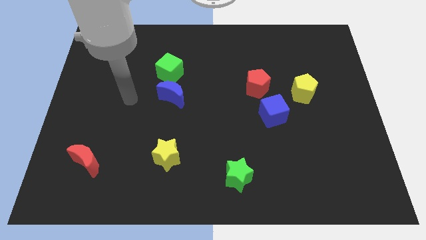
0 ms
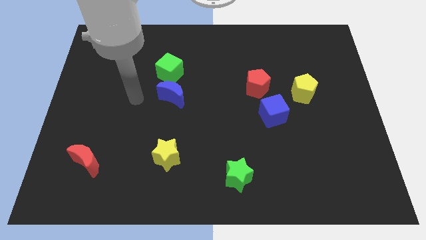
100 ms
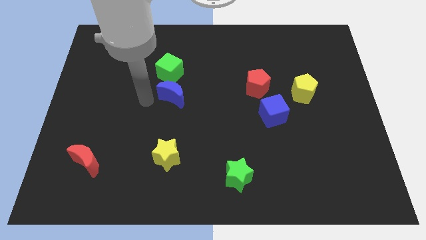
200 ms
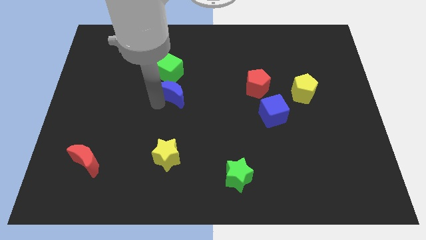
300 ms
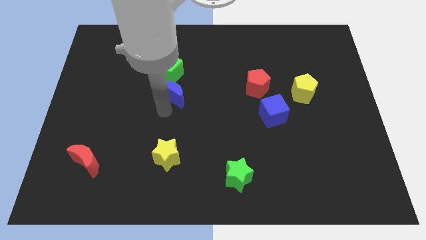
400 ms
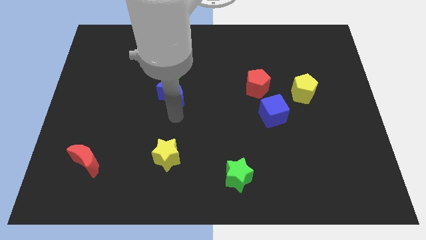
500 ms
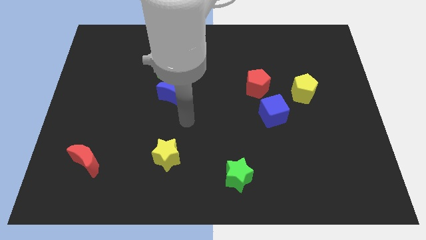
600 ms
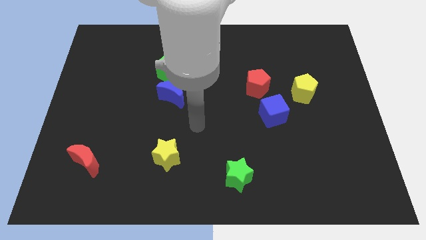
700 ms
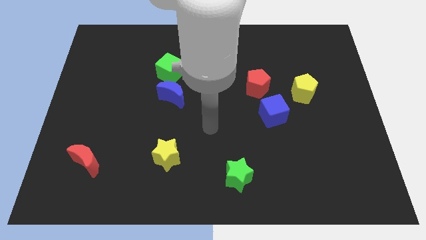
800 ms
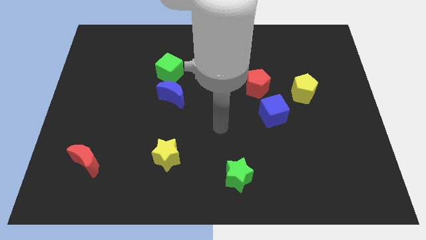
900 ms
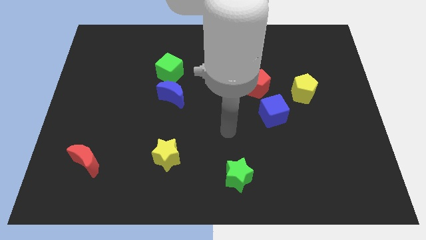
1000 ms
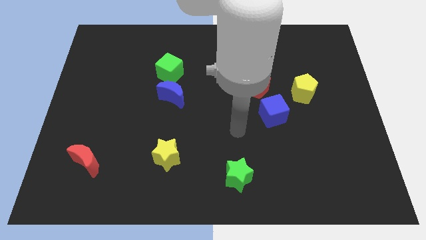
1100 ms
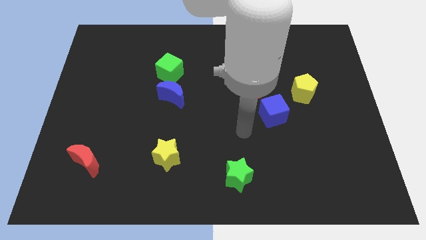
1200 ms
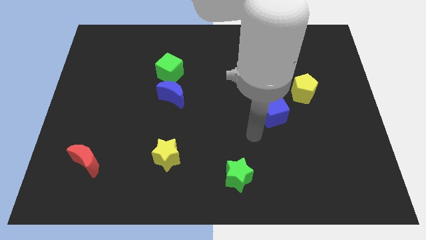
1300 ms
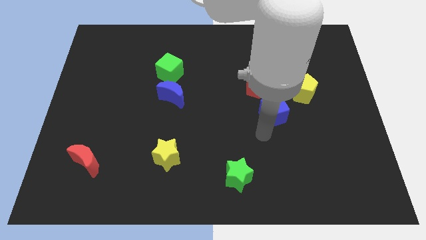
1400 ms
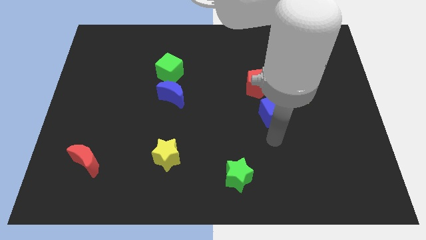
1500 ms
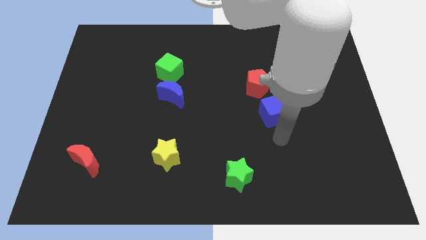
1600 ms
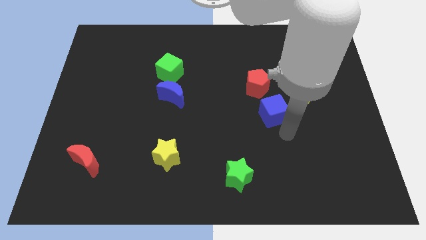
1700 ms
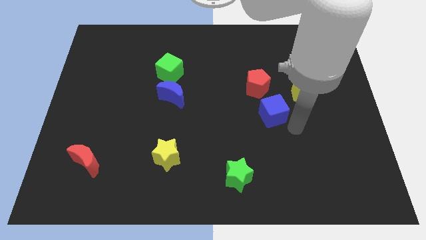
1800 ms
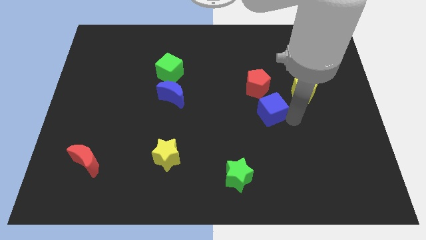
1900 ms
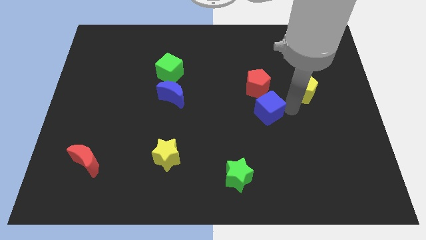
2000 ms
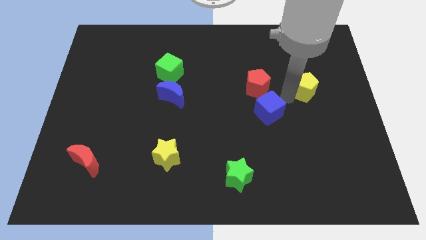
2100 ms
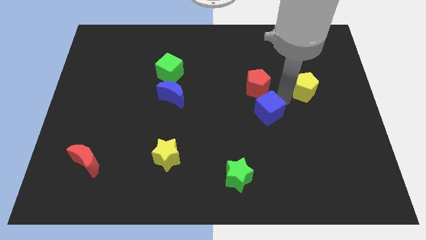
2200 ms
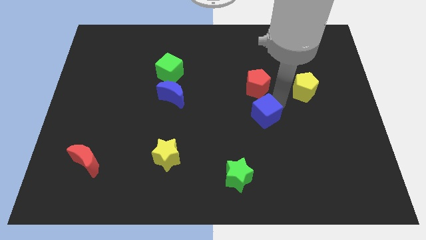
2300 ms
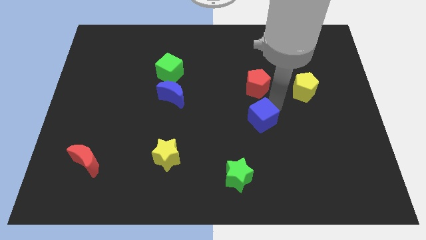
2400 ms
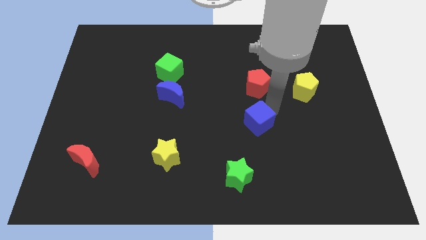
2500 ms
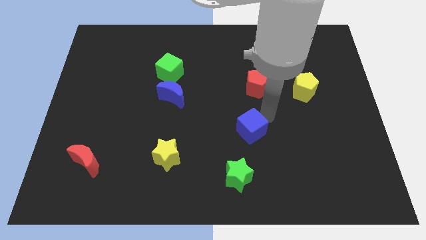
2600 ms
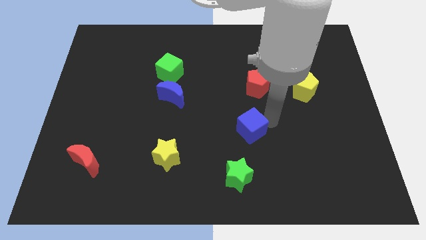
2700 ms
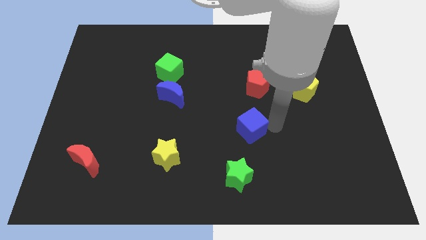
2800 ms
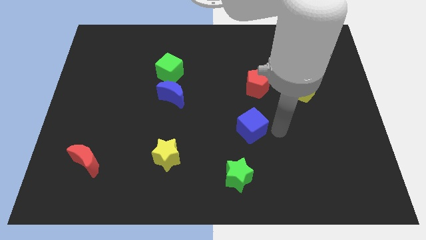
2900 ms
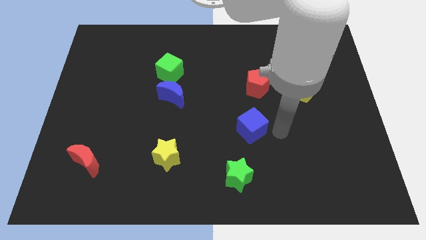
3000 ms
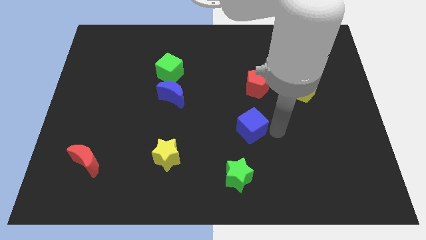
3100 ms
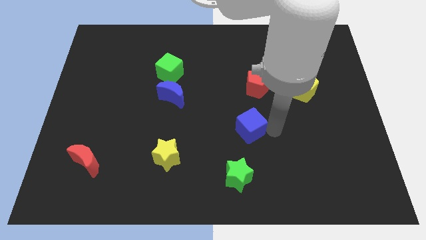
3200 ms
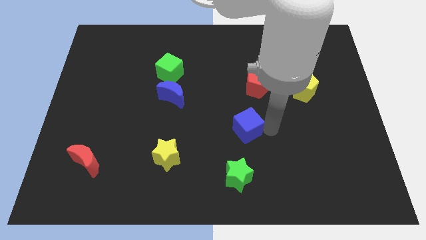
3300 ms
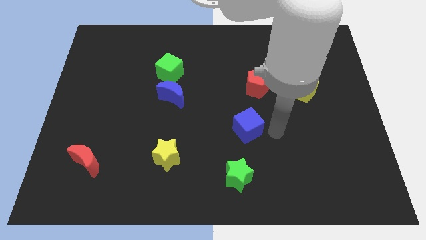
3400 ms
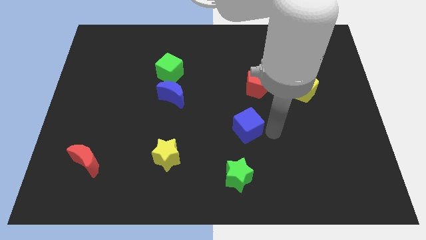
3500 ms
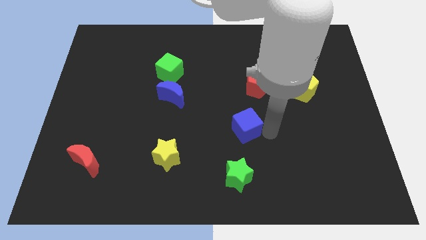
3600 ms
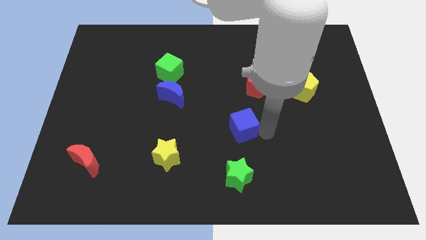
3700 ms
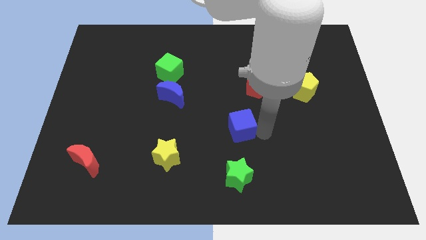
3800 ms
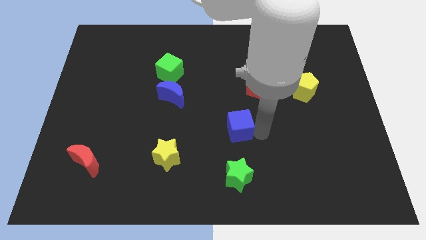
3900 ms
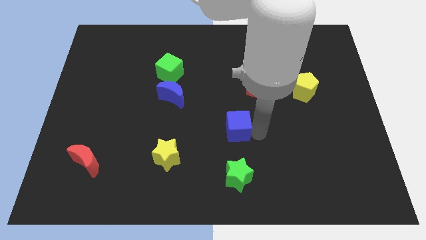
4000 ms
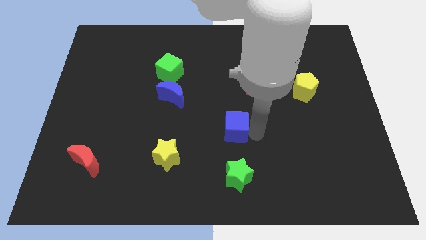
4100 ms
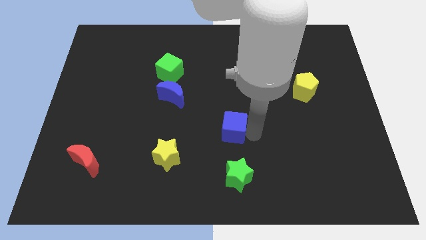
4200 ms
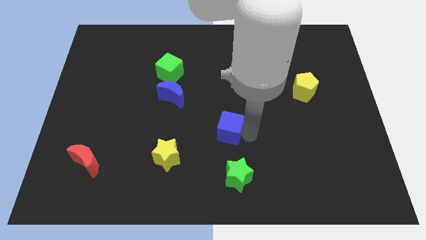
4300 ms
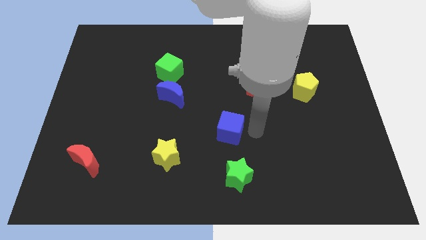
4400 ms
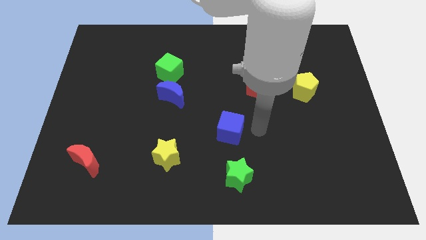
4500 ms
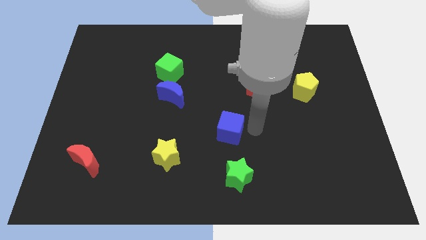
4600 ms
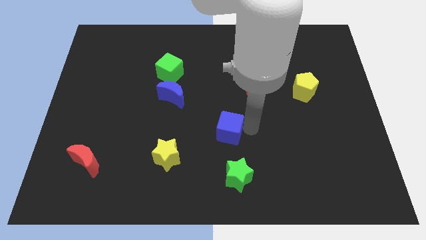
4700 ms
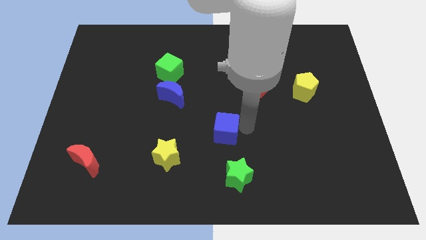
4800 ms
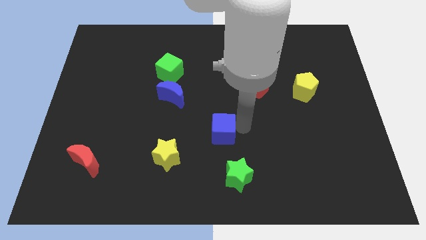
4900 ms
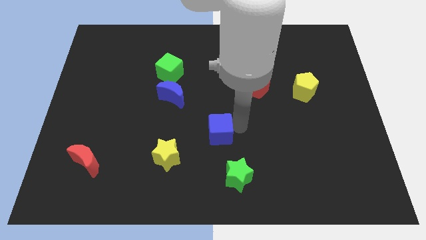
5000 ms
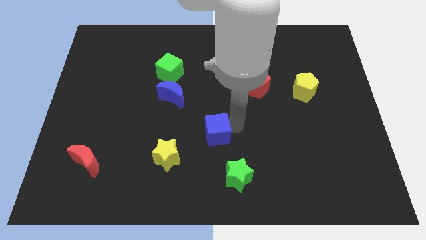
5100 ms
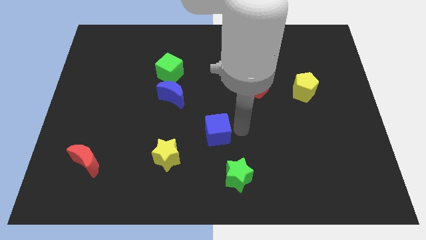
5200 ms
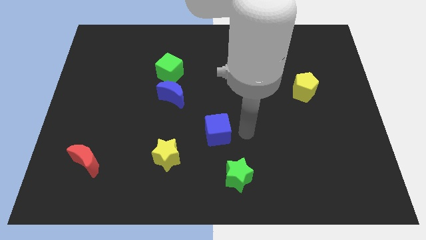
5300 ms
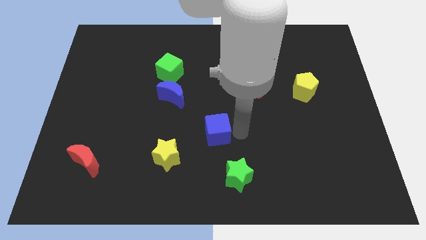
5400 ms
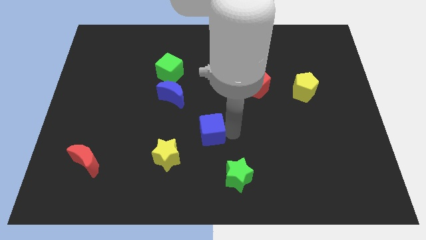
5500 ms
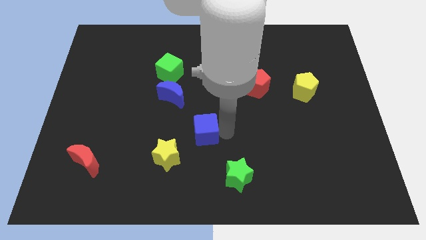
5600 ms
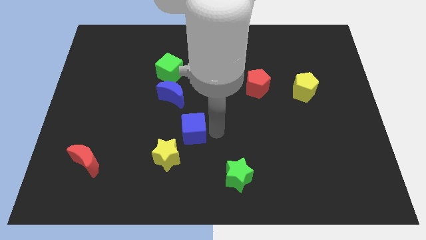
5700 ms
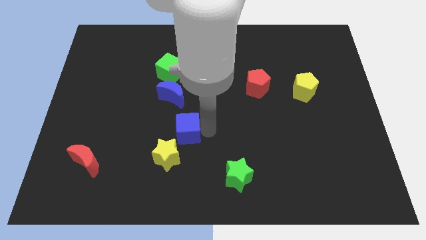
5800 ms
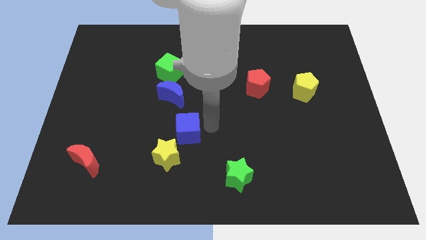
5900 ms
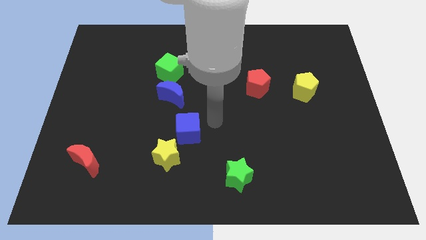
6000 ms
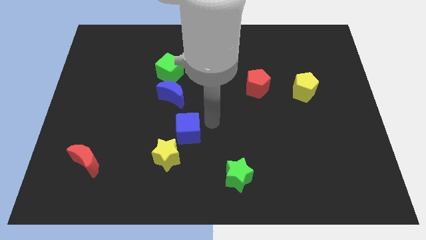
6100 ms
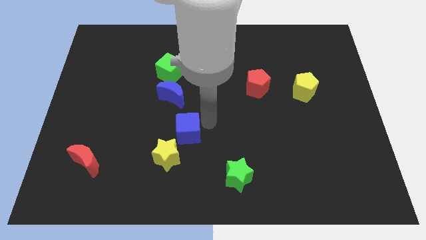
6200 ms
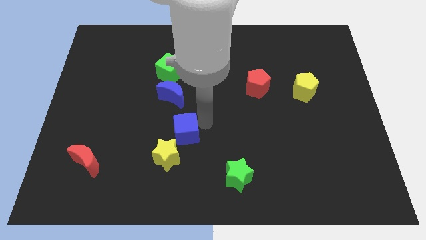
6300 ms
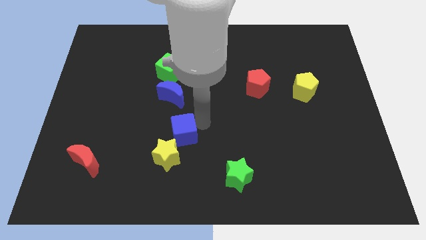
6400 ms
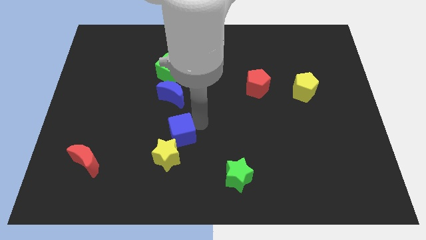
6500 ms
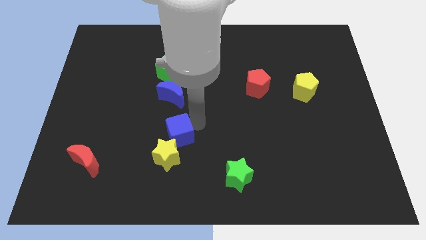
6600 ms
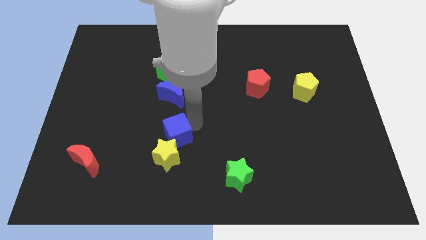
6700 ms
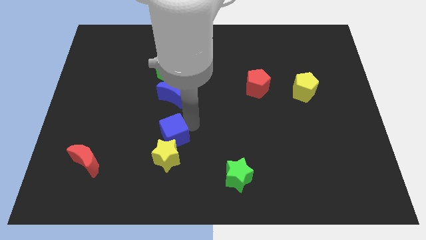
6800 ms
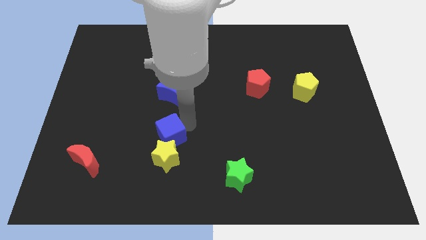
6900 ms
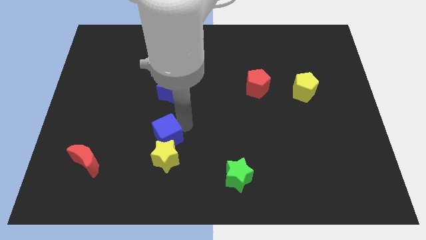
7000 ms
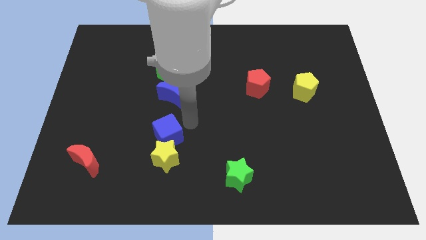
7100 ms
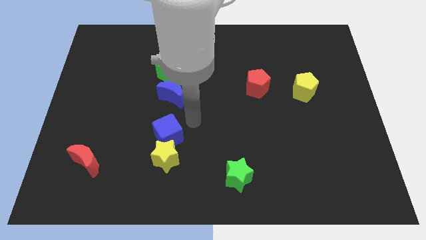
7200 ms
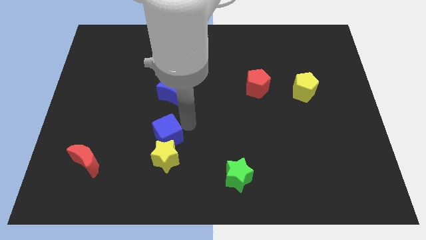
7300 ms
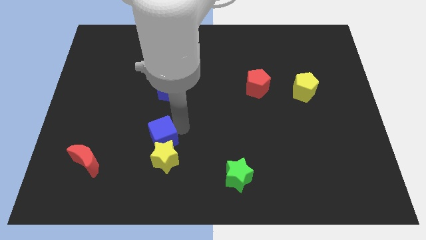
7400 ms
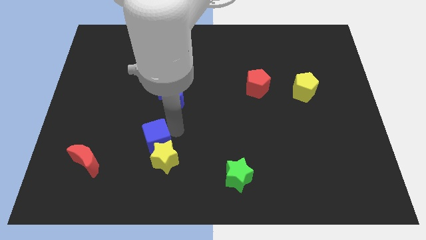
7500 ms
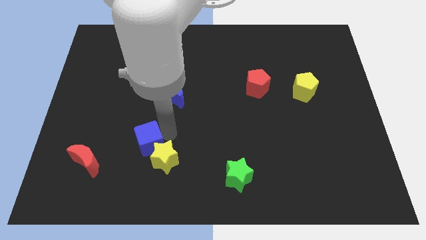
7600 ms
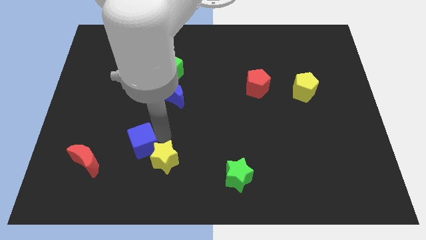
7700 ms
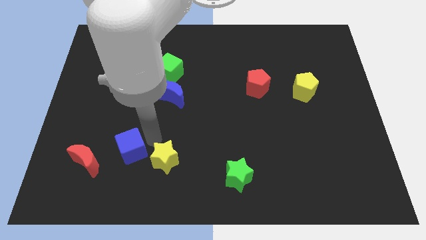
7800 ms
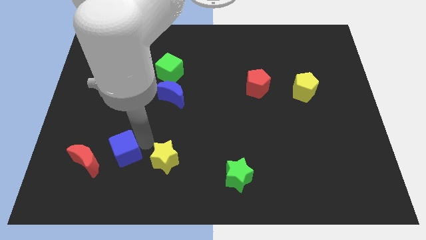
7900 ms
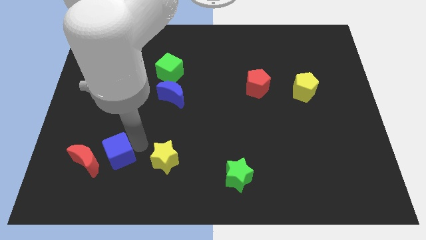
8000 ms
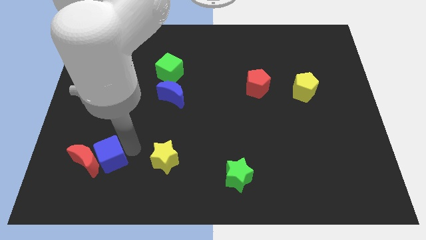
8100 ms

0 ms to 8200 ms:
push the blue cube close to the red moon
